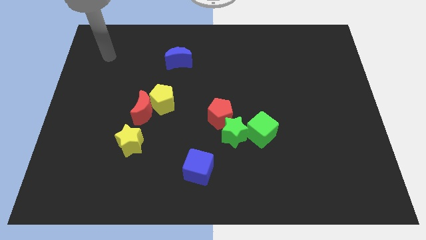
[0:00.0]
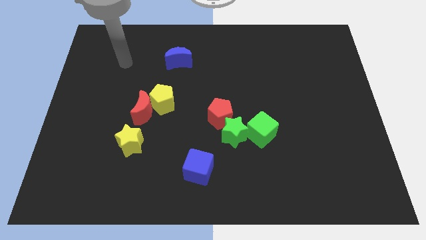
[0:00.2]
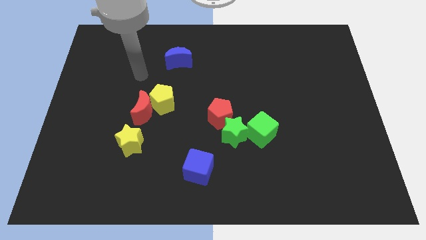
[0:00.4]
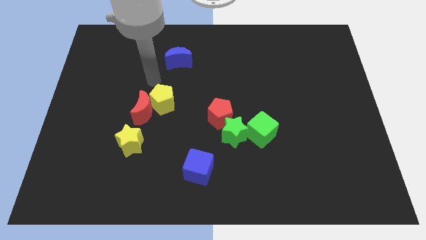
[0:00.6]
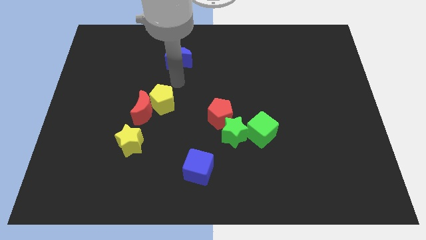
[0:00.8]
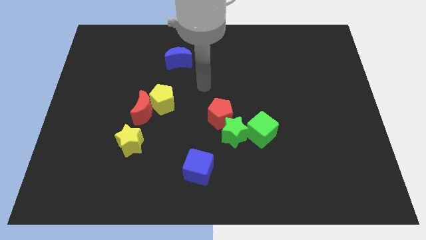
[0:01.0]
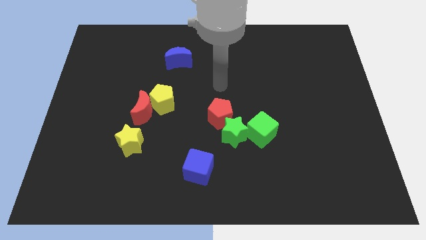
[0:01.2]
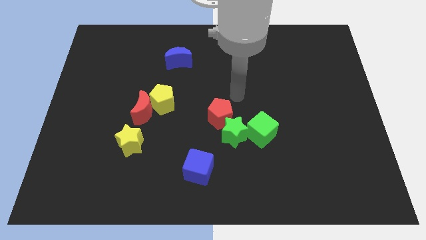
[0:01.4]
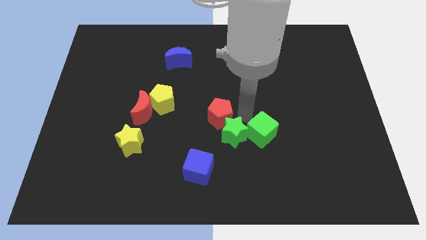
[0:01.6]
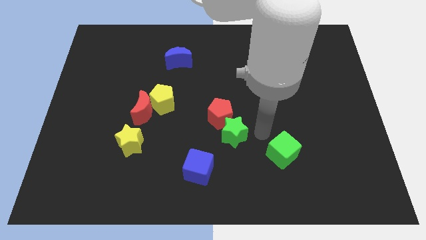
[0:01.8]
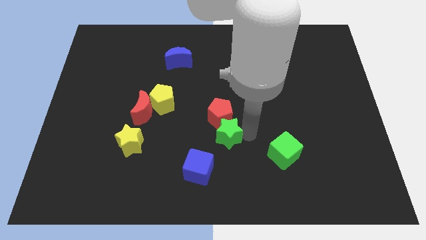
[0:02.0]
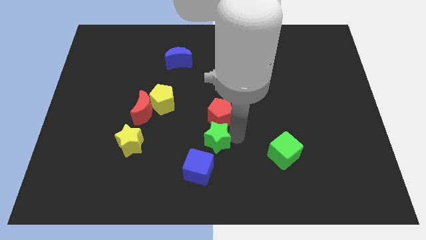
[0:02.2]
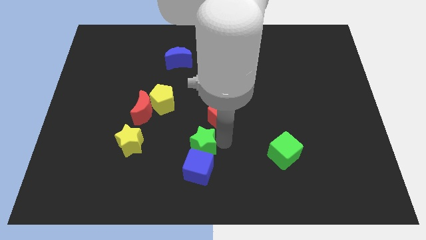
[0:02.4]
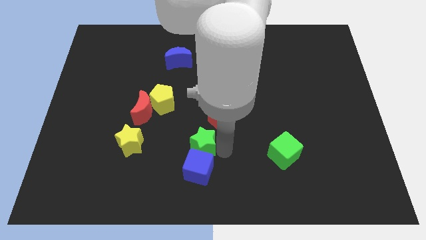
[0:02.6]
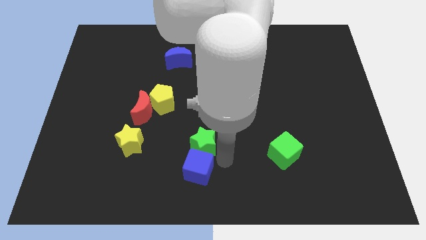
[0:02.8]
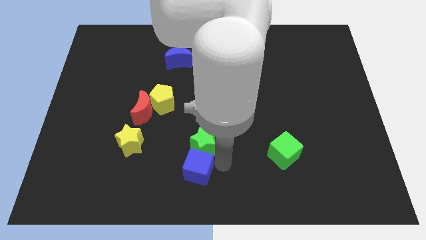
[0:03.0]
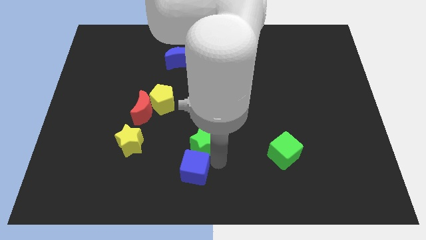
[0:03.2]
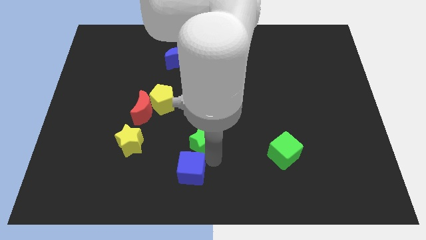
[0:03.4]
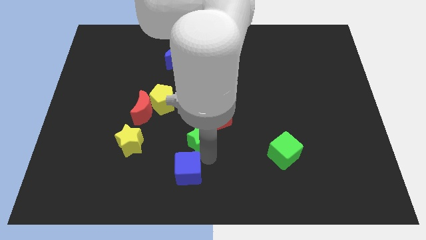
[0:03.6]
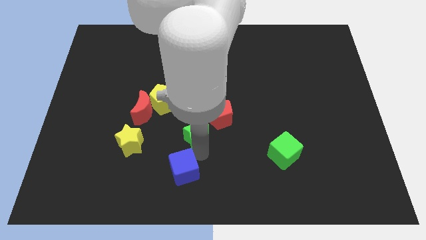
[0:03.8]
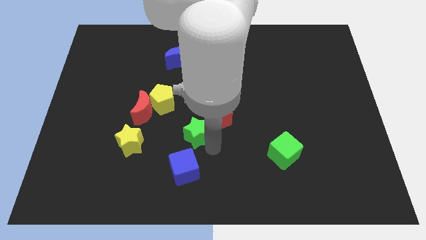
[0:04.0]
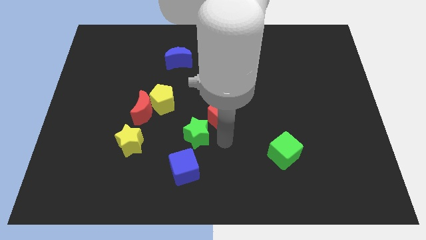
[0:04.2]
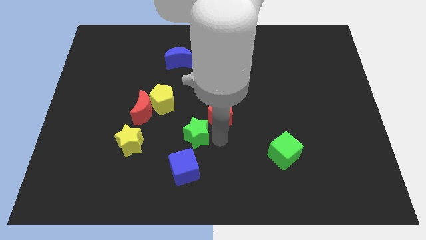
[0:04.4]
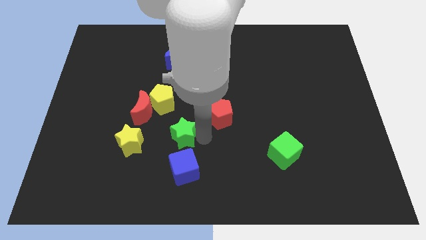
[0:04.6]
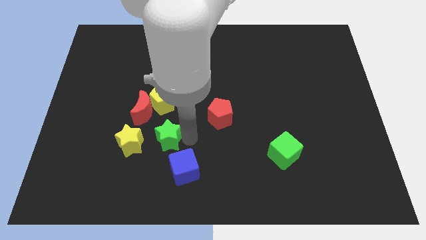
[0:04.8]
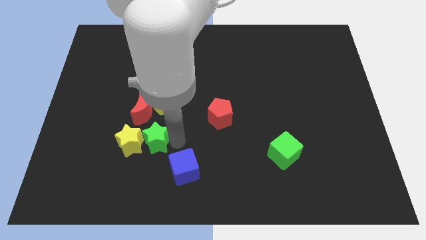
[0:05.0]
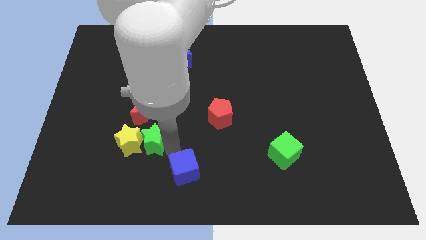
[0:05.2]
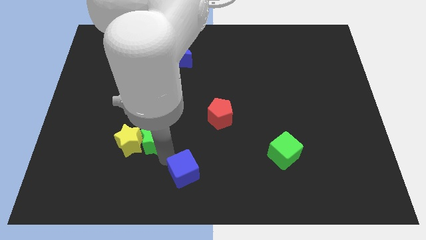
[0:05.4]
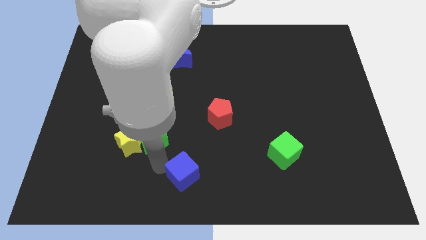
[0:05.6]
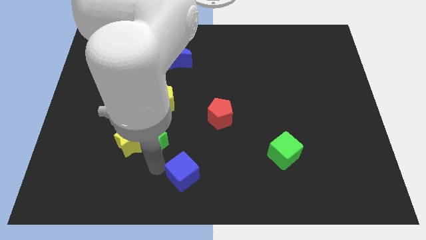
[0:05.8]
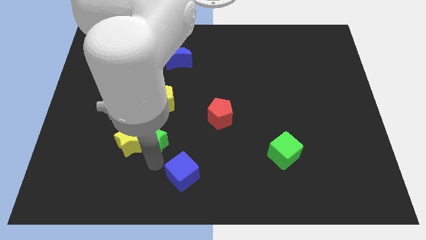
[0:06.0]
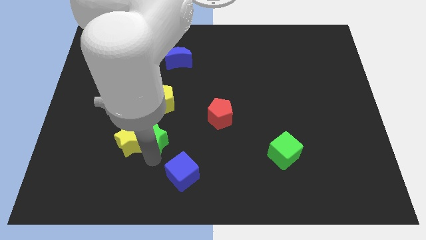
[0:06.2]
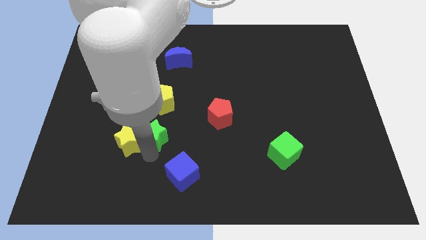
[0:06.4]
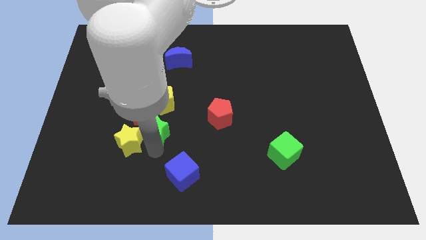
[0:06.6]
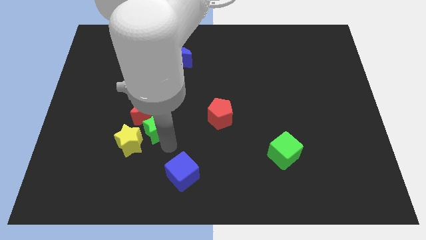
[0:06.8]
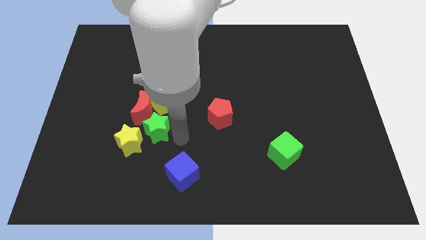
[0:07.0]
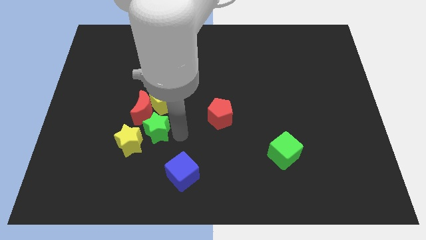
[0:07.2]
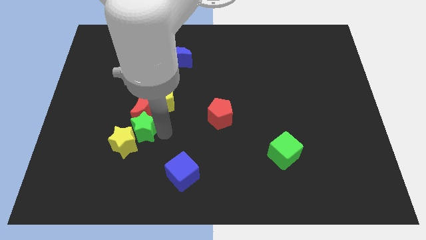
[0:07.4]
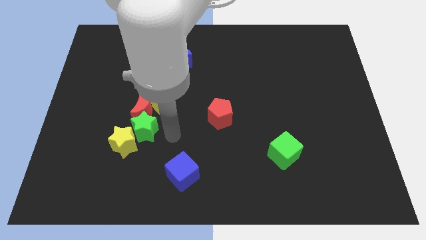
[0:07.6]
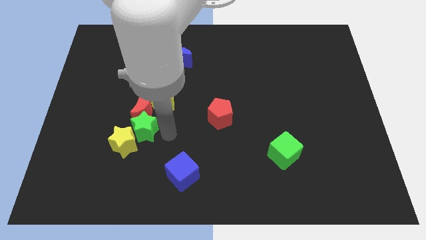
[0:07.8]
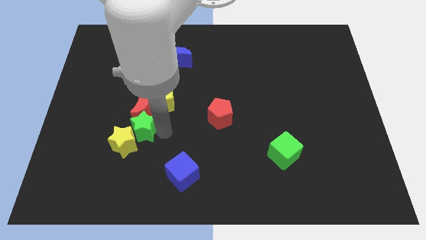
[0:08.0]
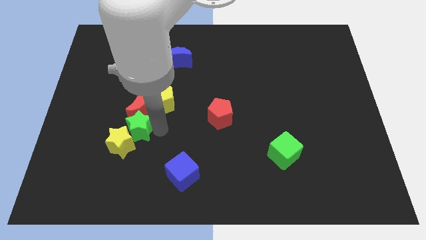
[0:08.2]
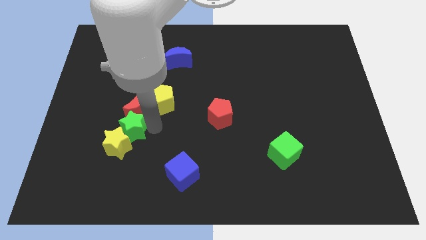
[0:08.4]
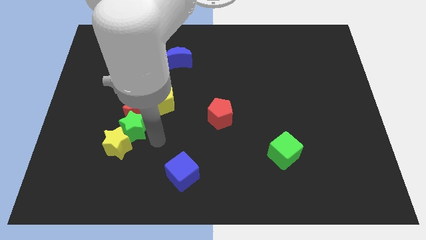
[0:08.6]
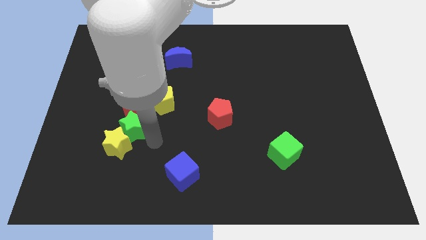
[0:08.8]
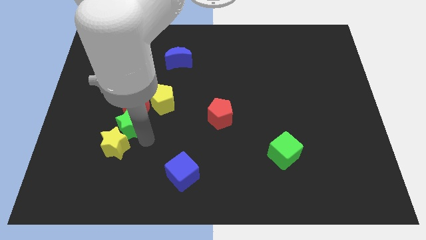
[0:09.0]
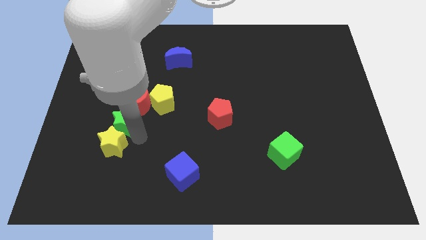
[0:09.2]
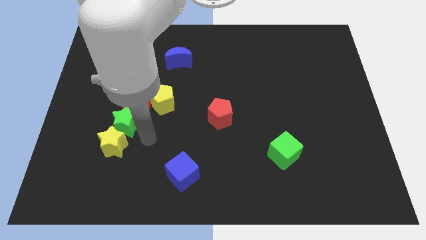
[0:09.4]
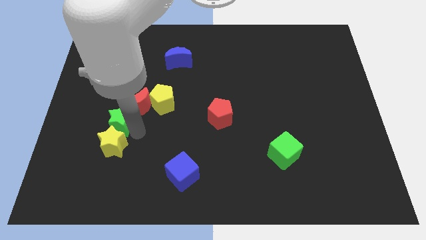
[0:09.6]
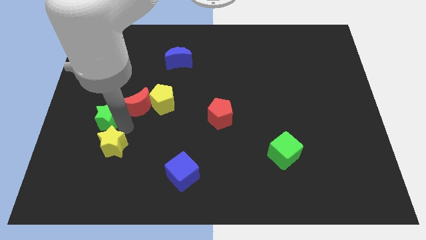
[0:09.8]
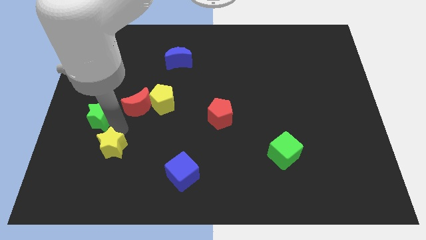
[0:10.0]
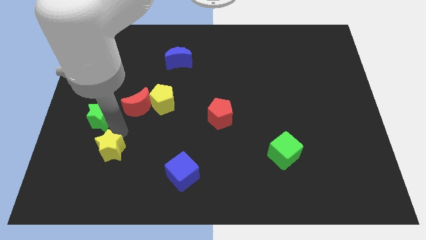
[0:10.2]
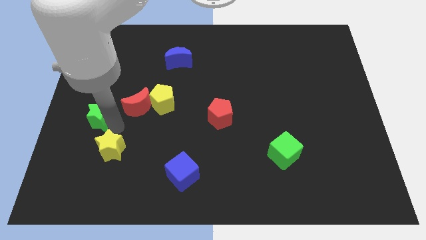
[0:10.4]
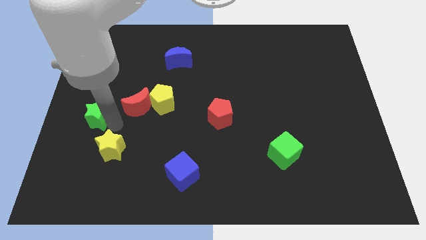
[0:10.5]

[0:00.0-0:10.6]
put the green star to the left side
